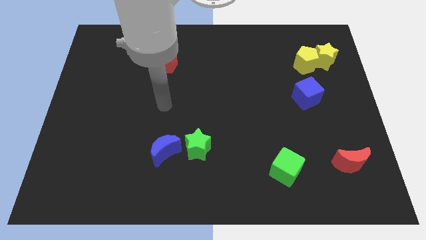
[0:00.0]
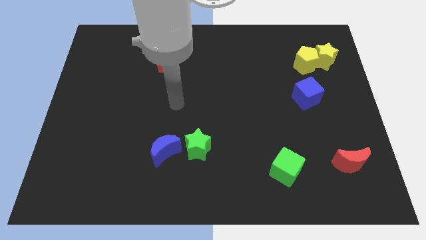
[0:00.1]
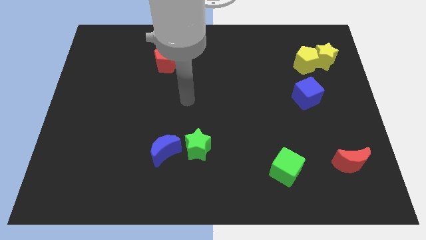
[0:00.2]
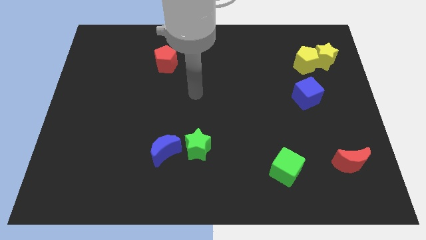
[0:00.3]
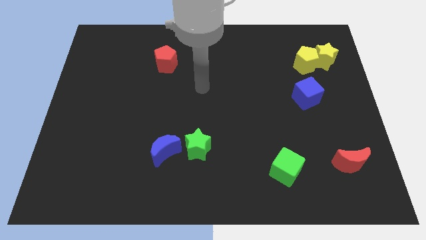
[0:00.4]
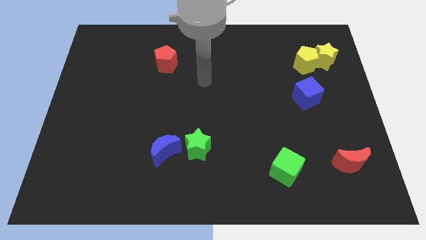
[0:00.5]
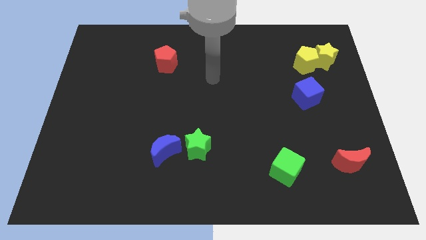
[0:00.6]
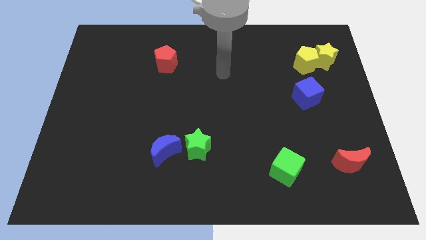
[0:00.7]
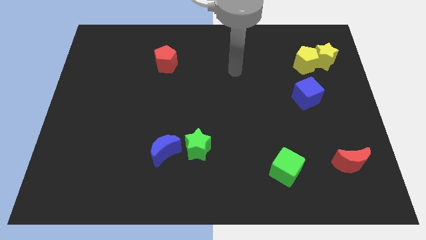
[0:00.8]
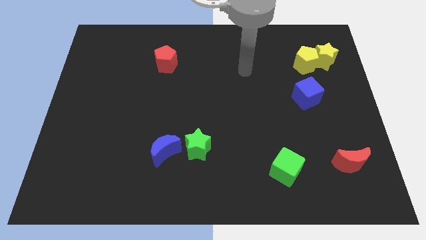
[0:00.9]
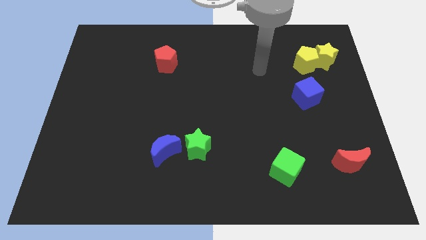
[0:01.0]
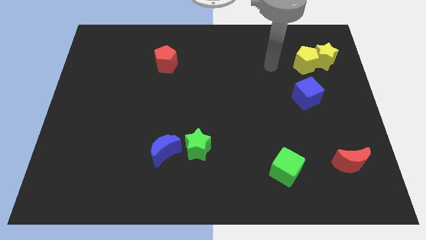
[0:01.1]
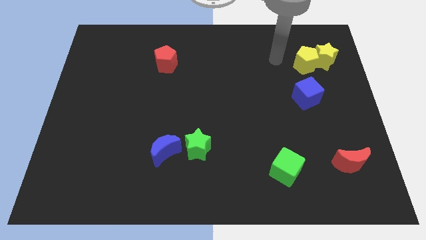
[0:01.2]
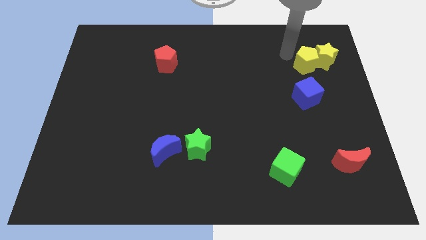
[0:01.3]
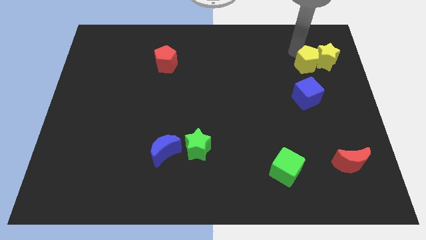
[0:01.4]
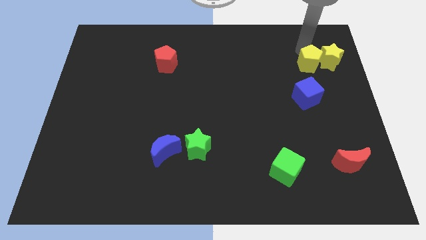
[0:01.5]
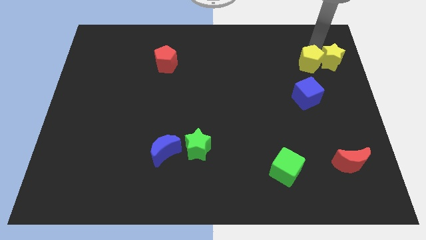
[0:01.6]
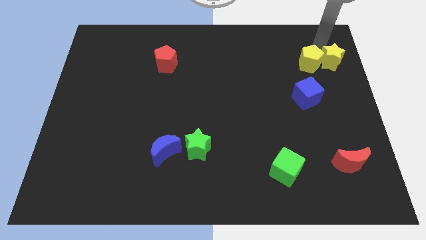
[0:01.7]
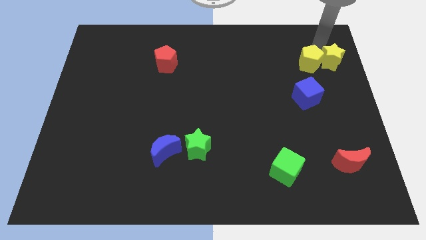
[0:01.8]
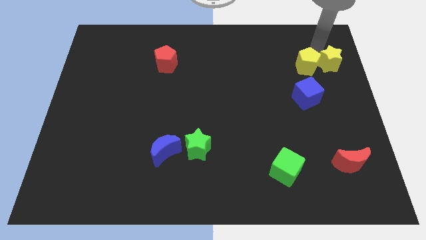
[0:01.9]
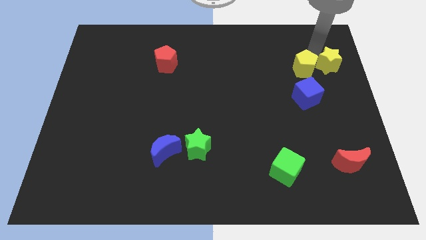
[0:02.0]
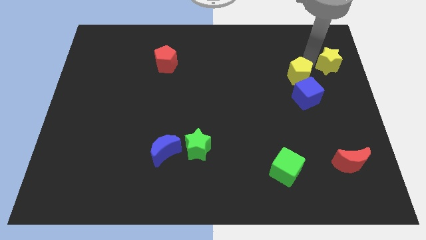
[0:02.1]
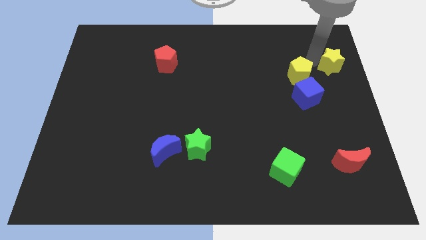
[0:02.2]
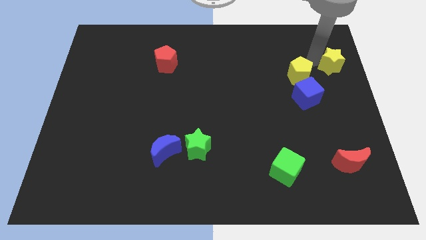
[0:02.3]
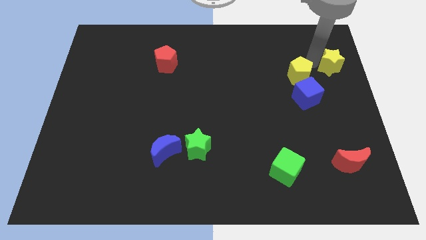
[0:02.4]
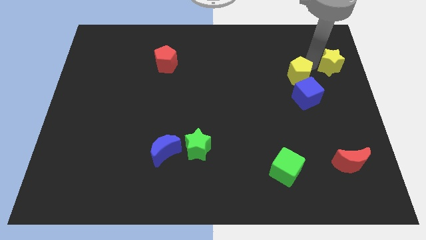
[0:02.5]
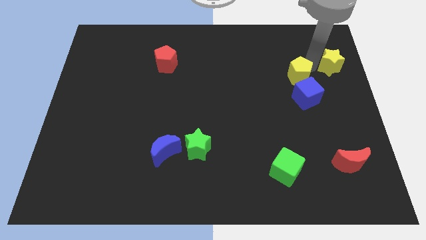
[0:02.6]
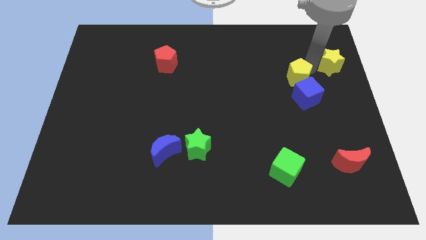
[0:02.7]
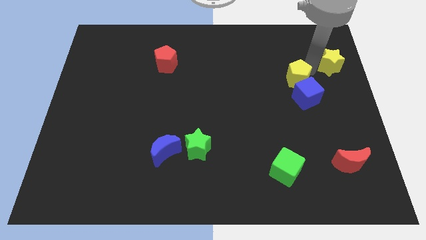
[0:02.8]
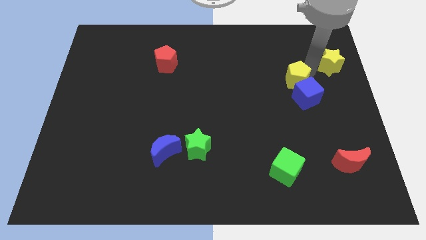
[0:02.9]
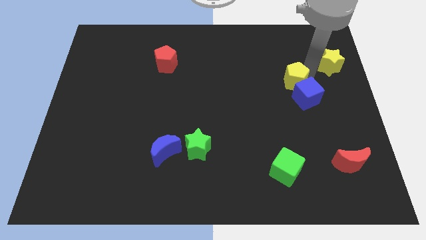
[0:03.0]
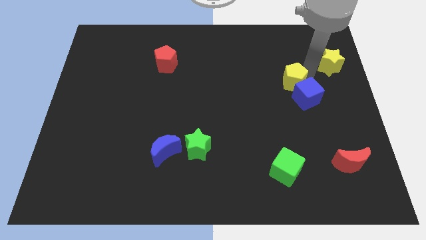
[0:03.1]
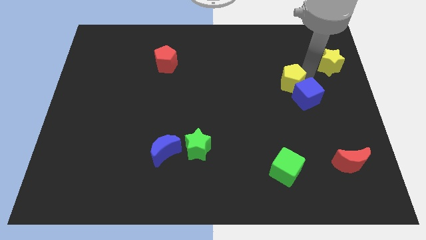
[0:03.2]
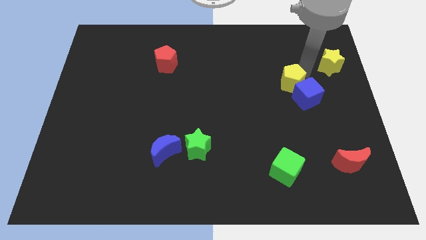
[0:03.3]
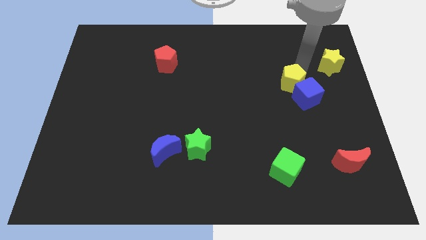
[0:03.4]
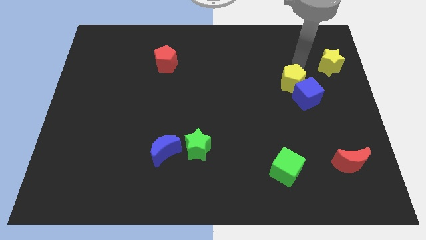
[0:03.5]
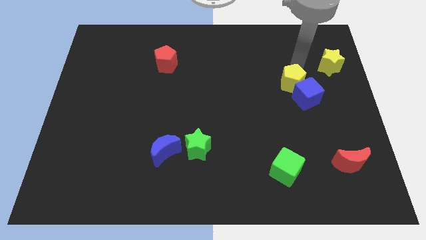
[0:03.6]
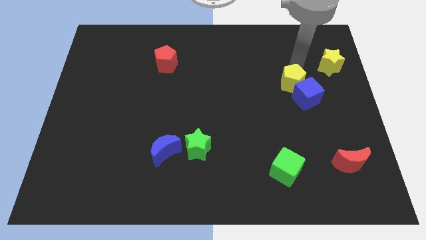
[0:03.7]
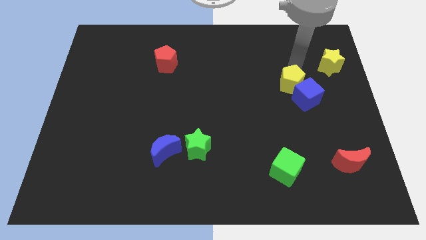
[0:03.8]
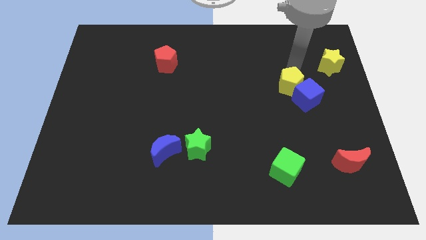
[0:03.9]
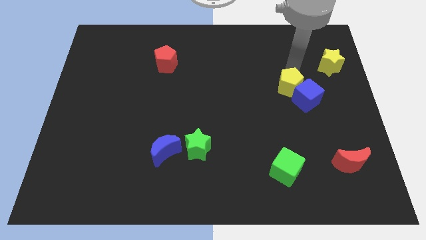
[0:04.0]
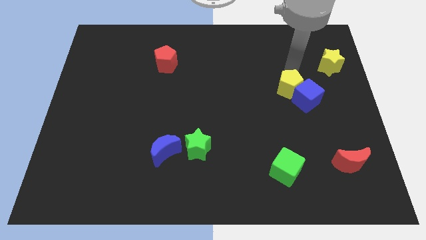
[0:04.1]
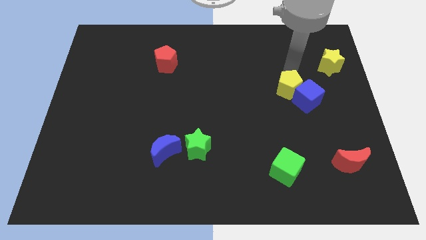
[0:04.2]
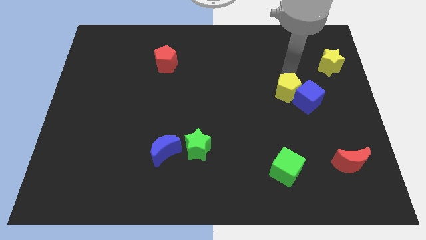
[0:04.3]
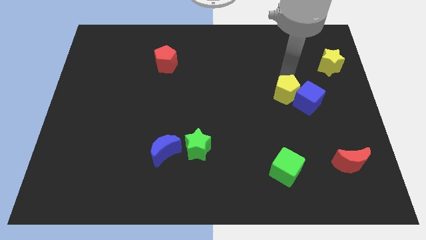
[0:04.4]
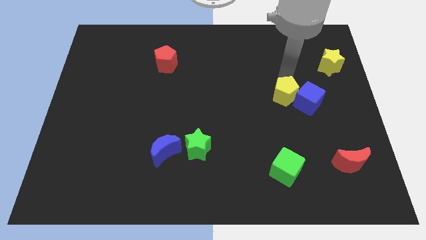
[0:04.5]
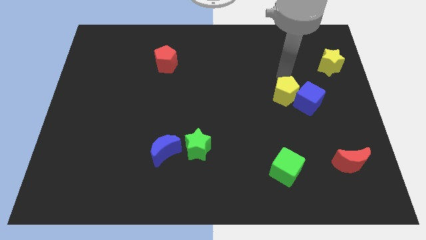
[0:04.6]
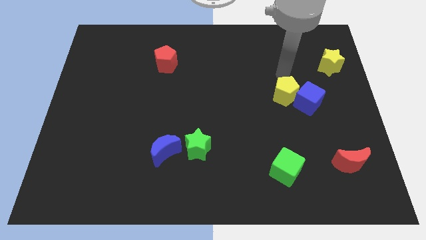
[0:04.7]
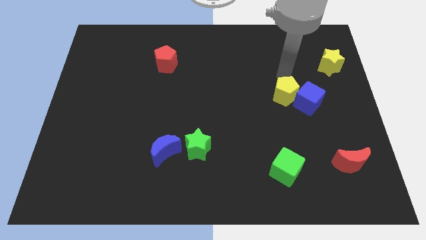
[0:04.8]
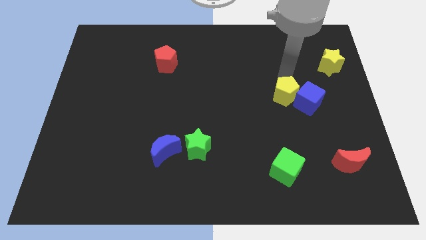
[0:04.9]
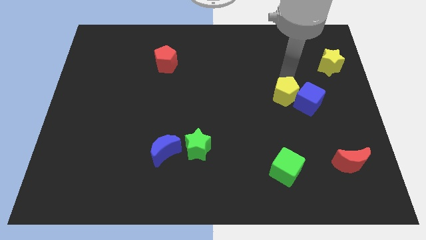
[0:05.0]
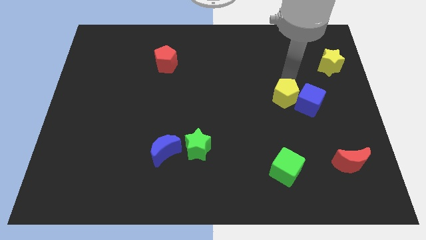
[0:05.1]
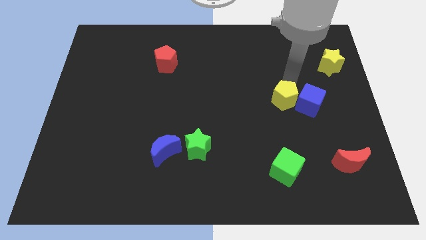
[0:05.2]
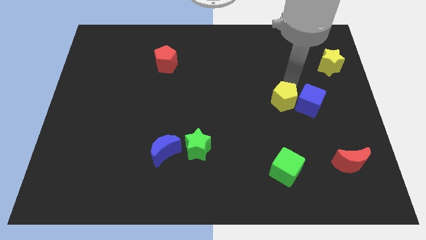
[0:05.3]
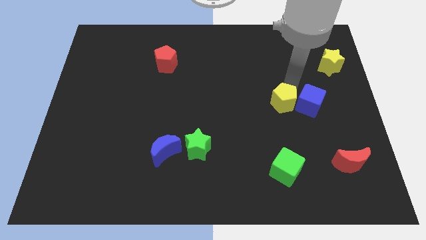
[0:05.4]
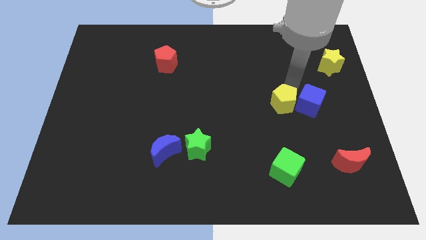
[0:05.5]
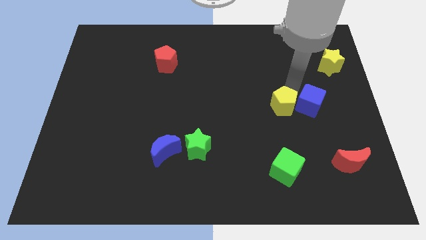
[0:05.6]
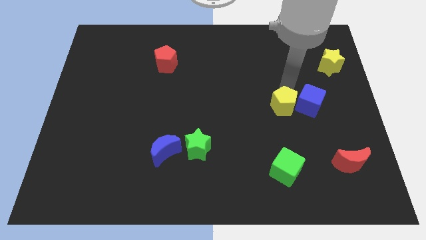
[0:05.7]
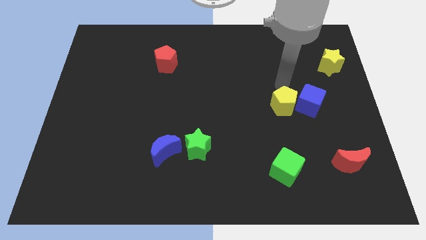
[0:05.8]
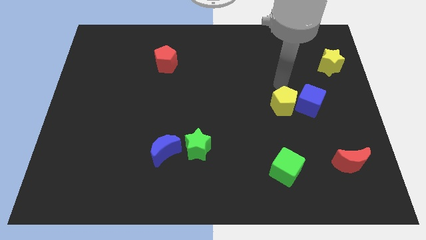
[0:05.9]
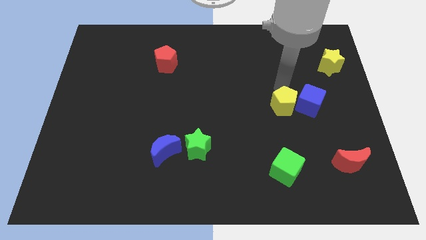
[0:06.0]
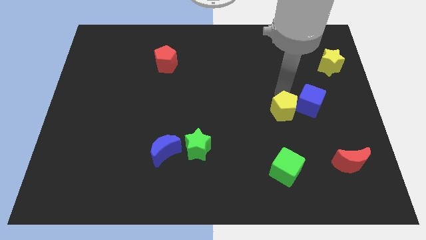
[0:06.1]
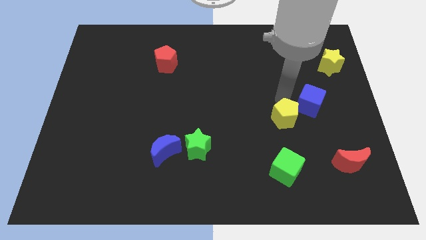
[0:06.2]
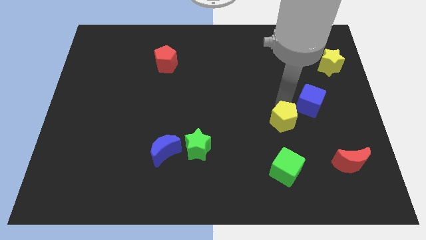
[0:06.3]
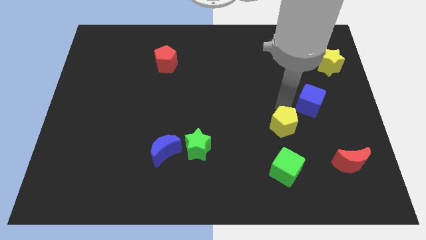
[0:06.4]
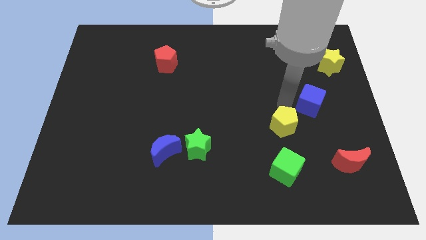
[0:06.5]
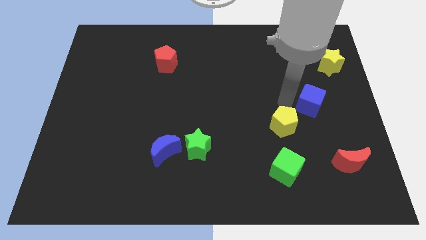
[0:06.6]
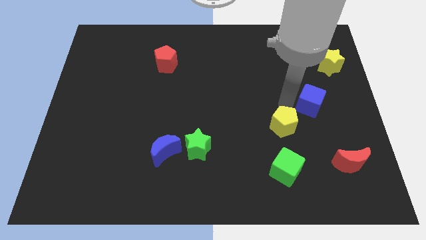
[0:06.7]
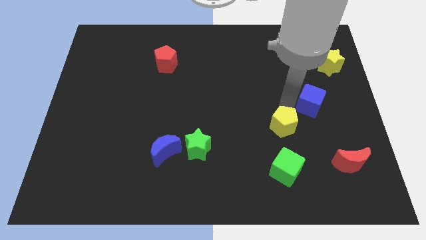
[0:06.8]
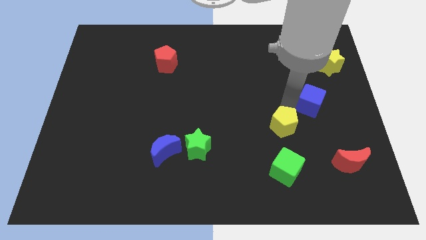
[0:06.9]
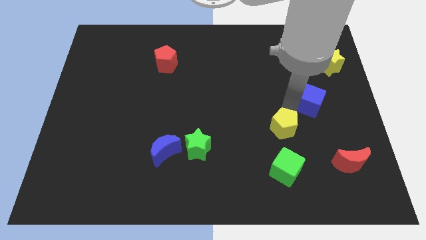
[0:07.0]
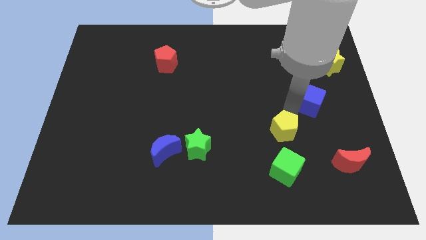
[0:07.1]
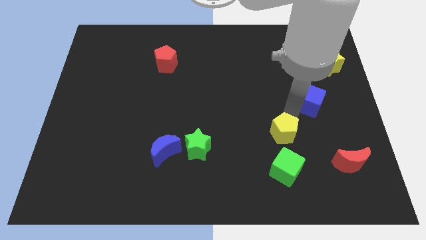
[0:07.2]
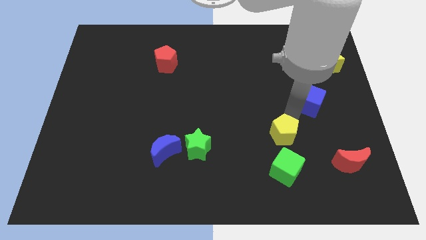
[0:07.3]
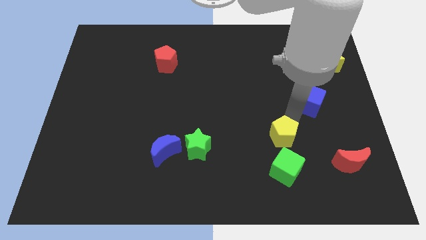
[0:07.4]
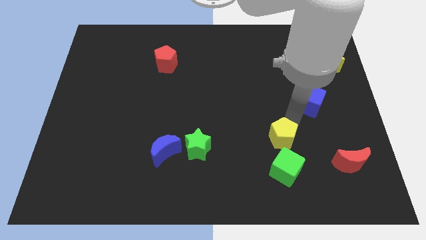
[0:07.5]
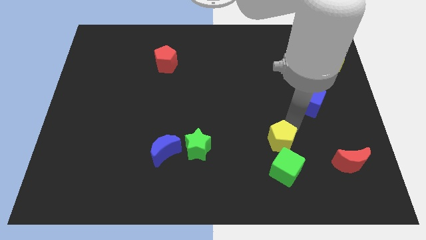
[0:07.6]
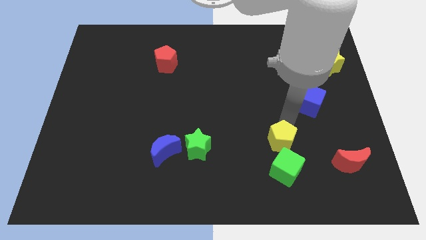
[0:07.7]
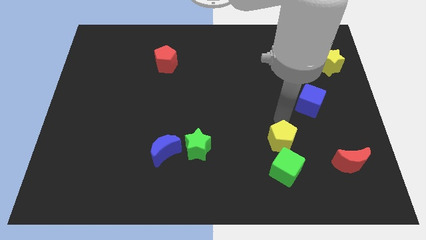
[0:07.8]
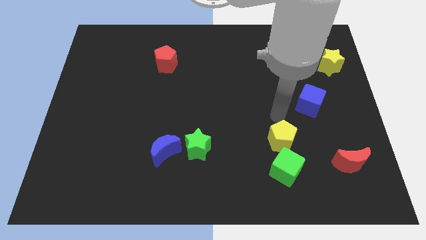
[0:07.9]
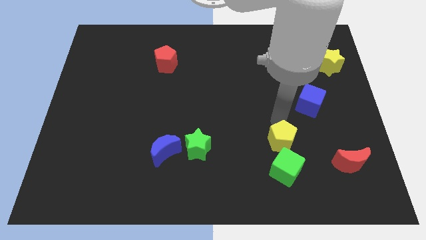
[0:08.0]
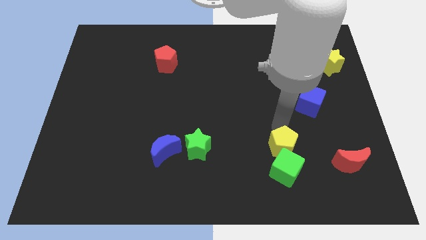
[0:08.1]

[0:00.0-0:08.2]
move the yellow pentagon to the green cube
